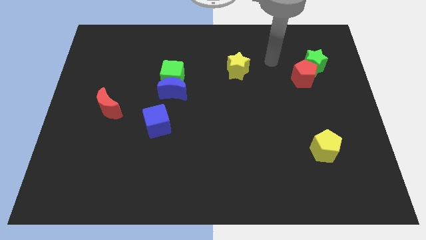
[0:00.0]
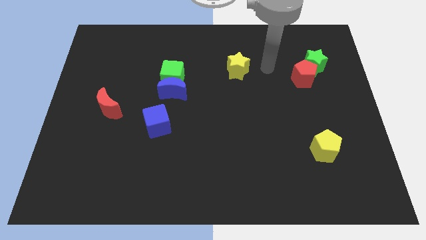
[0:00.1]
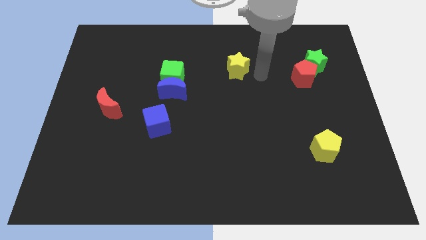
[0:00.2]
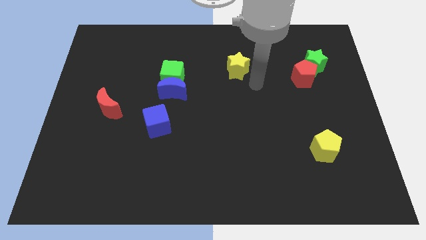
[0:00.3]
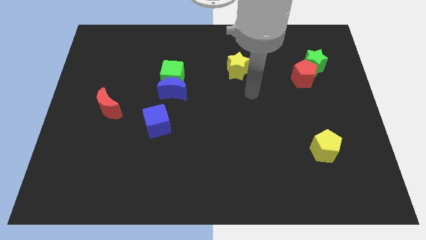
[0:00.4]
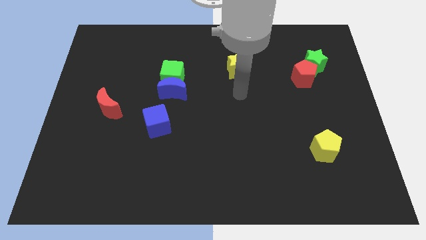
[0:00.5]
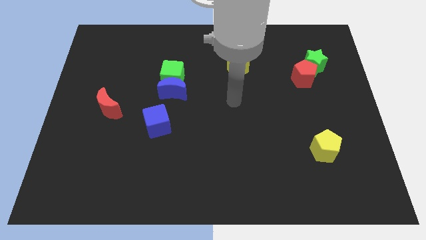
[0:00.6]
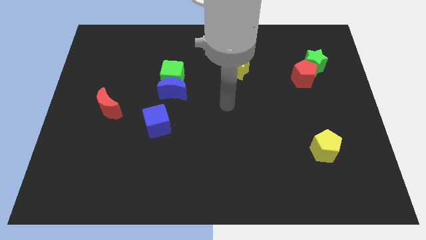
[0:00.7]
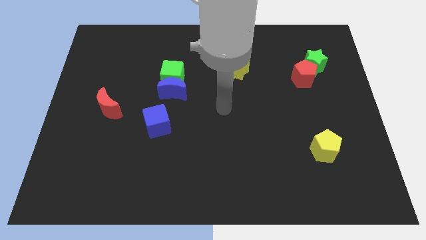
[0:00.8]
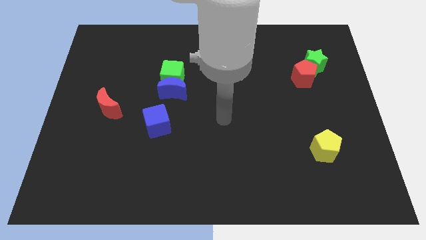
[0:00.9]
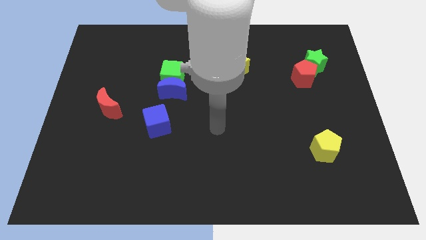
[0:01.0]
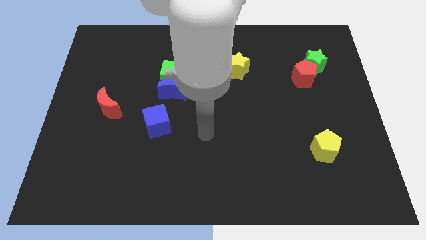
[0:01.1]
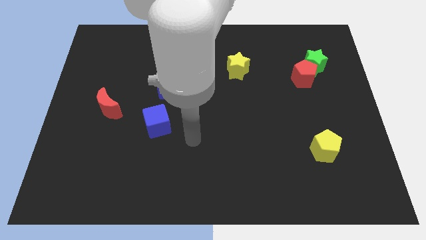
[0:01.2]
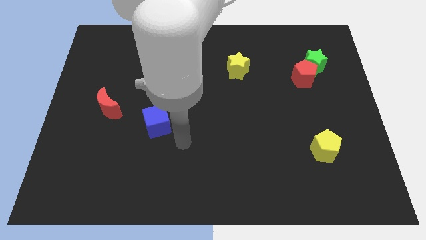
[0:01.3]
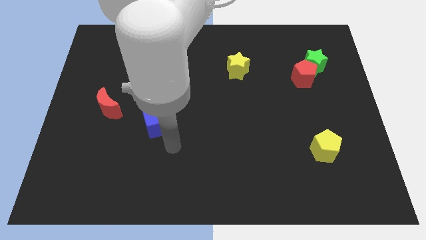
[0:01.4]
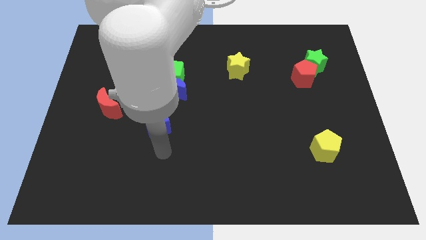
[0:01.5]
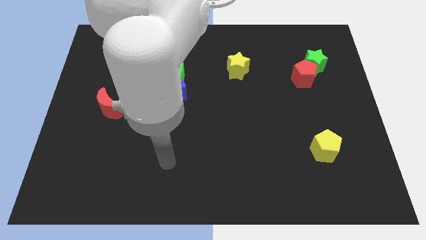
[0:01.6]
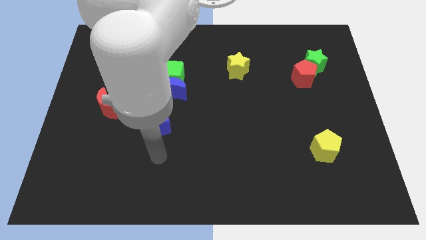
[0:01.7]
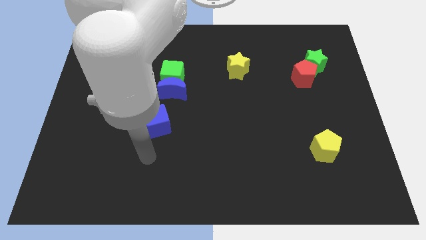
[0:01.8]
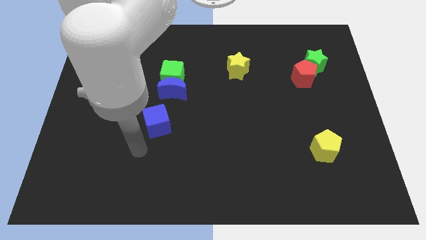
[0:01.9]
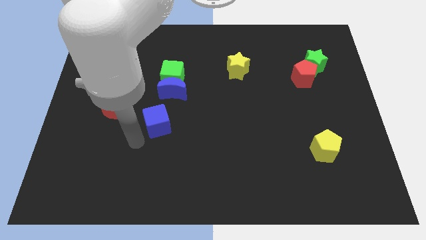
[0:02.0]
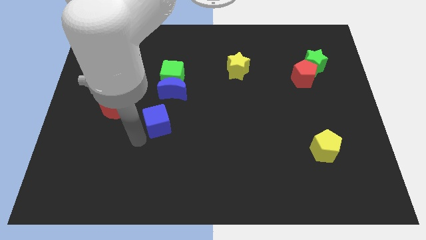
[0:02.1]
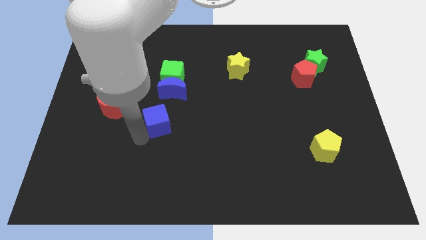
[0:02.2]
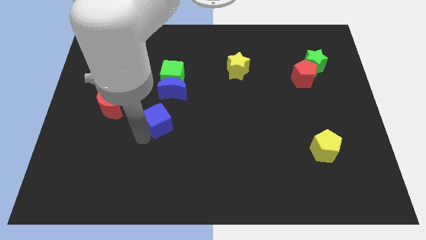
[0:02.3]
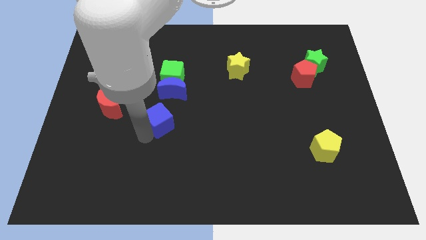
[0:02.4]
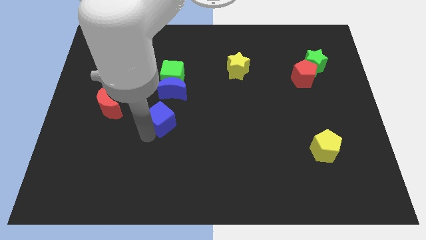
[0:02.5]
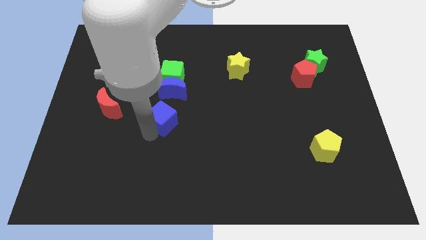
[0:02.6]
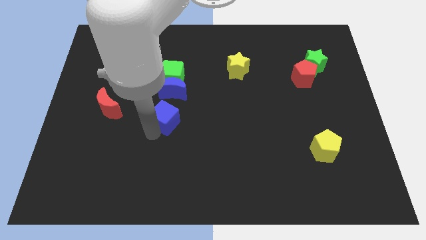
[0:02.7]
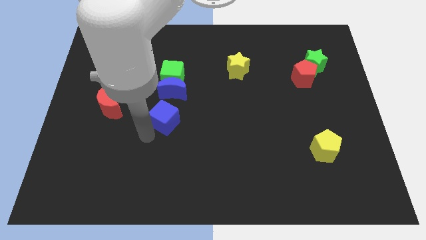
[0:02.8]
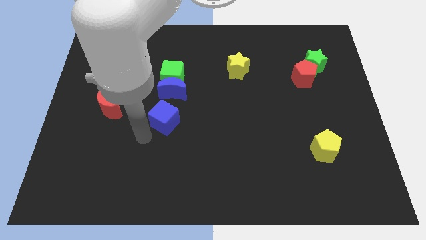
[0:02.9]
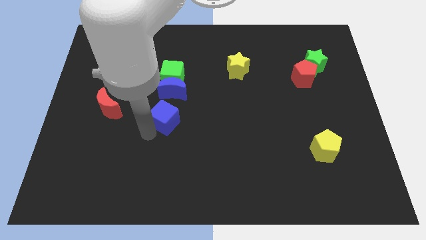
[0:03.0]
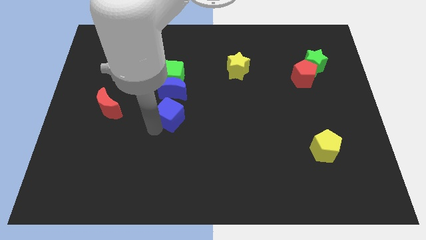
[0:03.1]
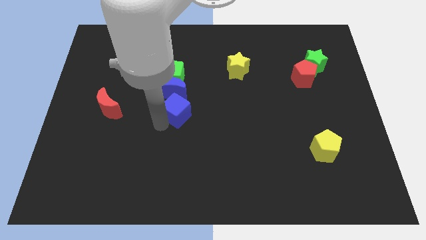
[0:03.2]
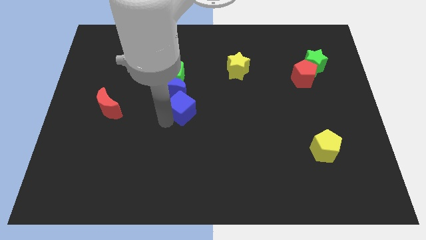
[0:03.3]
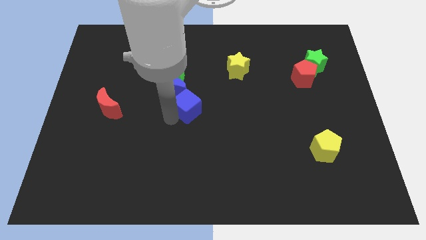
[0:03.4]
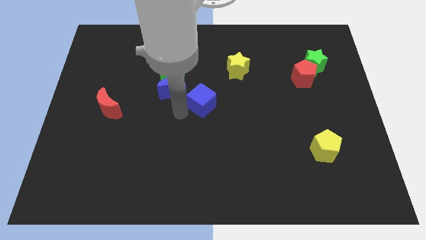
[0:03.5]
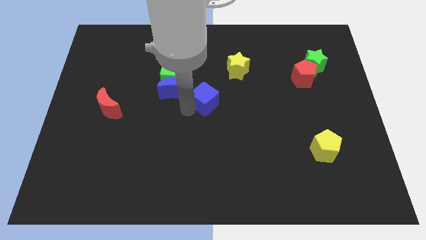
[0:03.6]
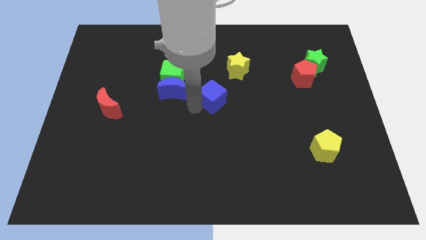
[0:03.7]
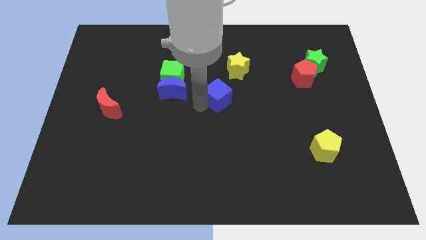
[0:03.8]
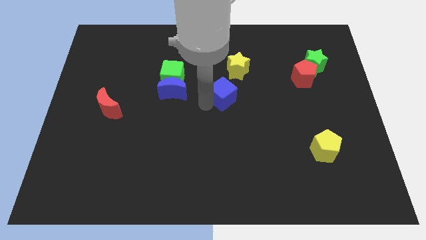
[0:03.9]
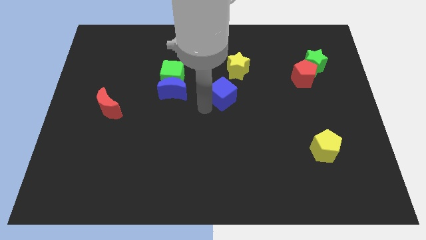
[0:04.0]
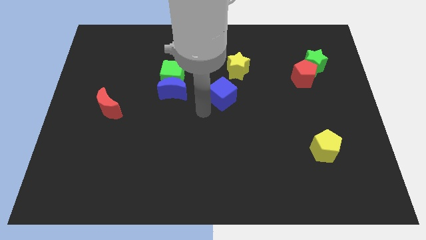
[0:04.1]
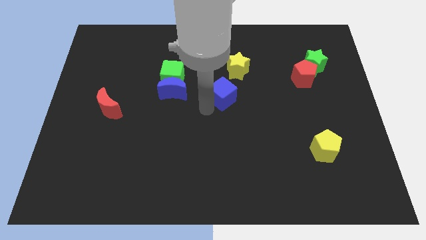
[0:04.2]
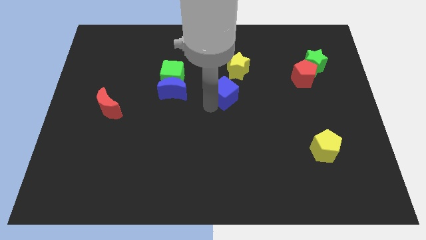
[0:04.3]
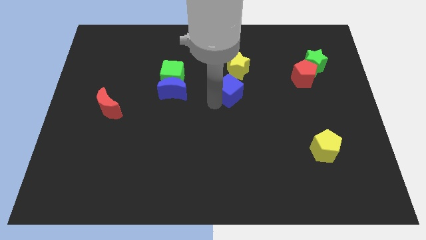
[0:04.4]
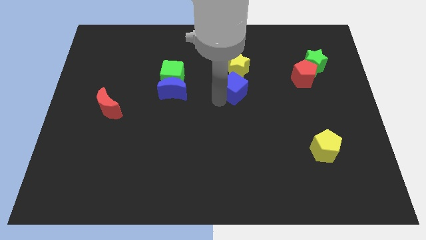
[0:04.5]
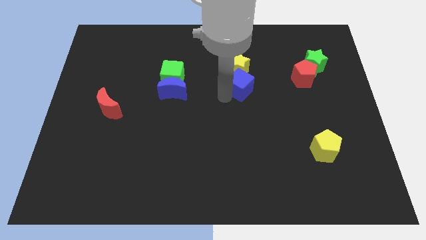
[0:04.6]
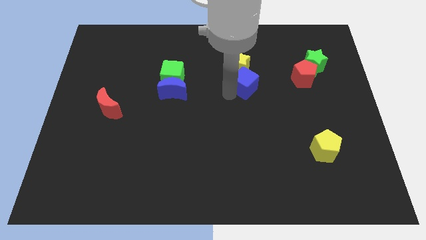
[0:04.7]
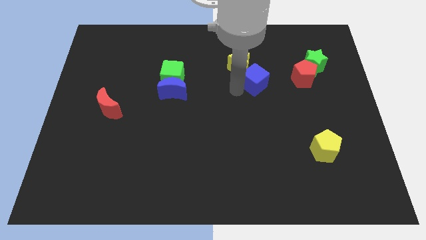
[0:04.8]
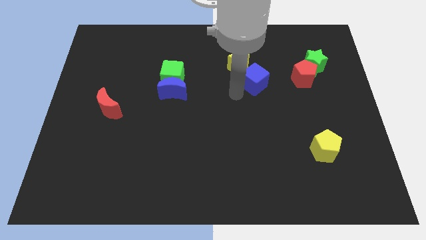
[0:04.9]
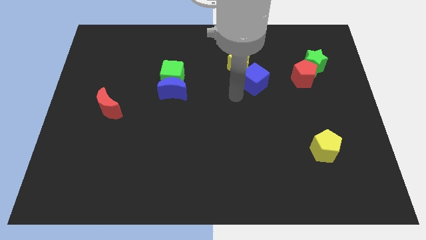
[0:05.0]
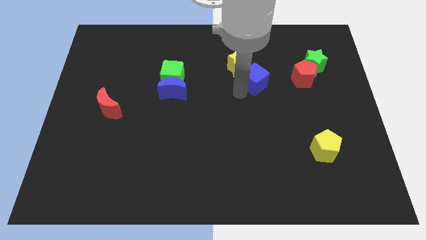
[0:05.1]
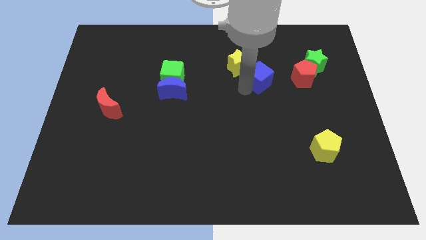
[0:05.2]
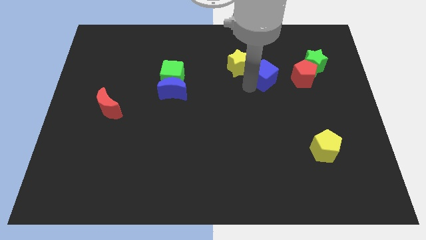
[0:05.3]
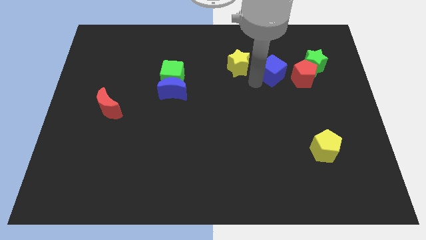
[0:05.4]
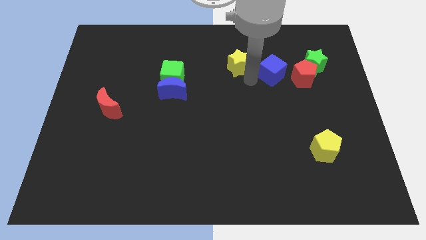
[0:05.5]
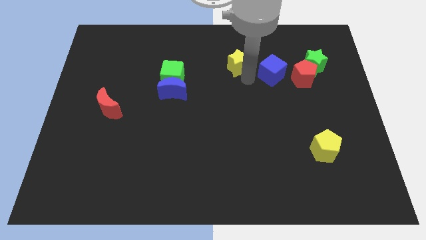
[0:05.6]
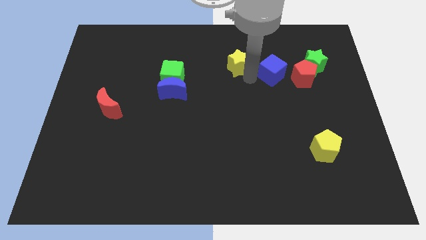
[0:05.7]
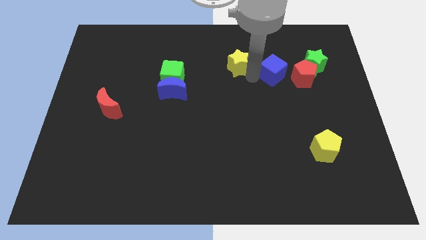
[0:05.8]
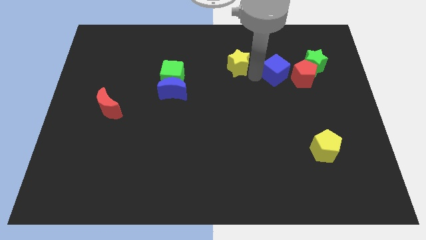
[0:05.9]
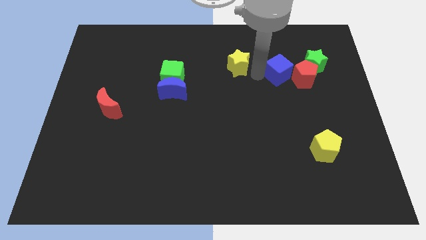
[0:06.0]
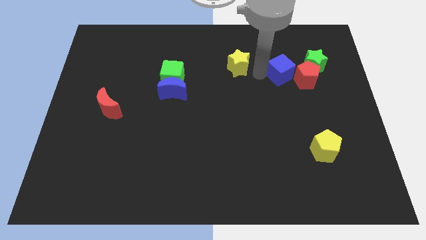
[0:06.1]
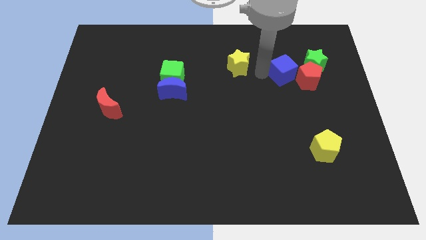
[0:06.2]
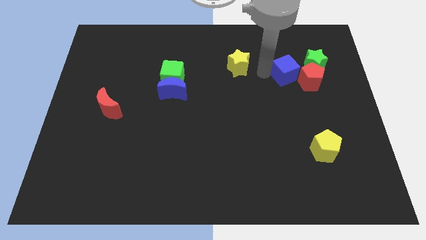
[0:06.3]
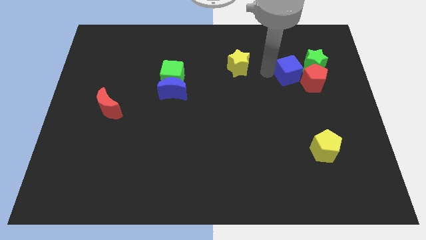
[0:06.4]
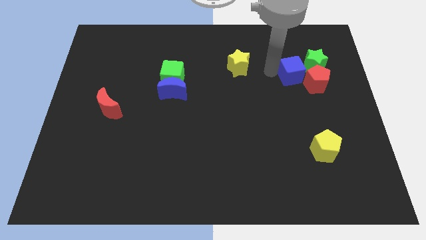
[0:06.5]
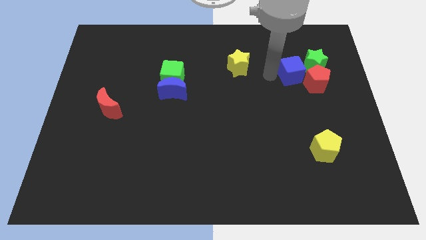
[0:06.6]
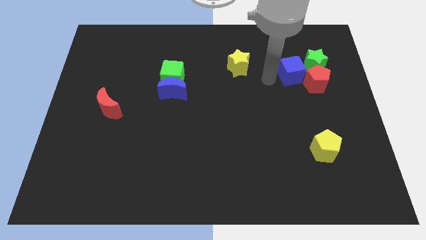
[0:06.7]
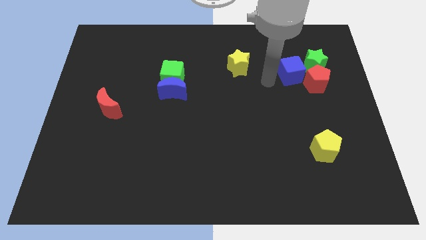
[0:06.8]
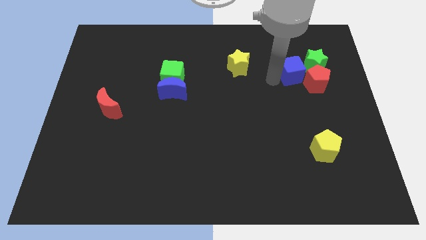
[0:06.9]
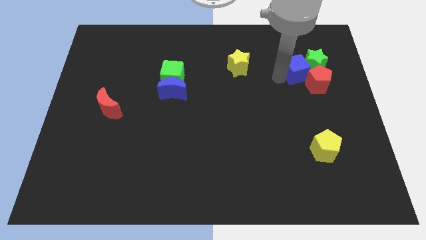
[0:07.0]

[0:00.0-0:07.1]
push the blue cube to the green star
